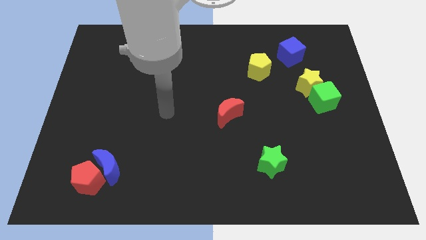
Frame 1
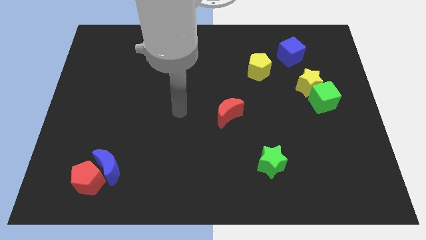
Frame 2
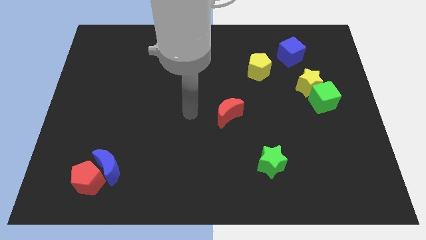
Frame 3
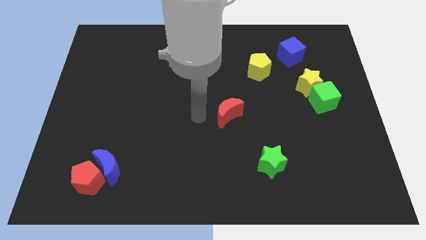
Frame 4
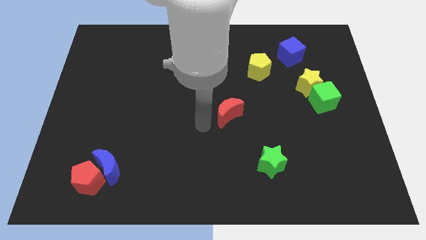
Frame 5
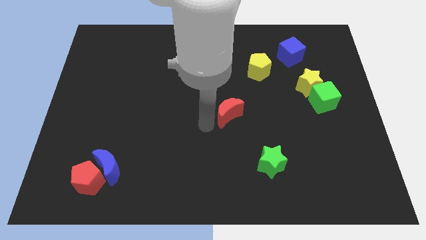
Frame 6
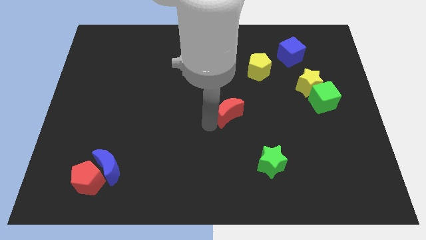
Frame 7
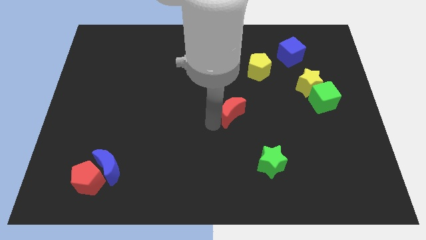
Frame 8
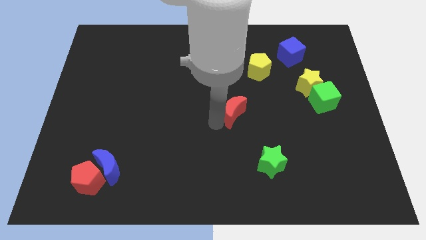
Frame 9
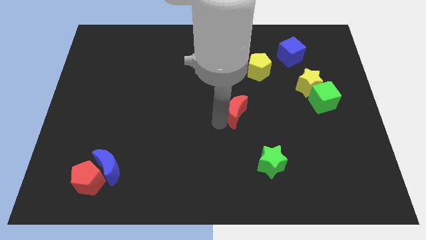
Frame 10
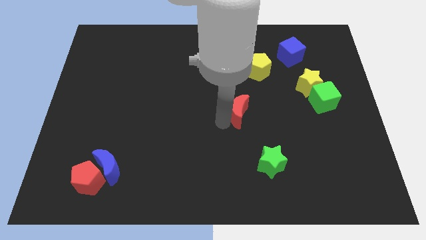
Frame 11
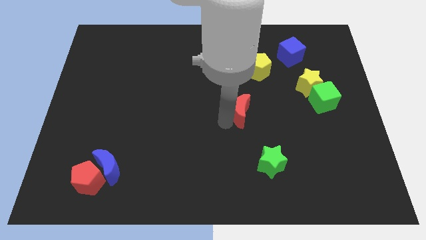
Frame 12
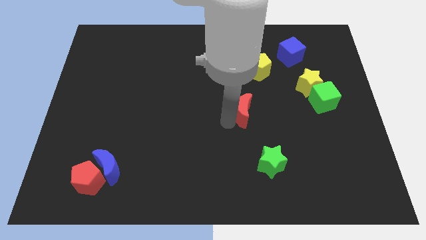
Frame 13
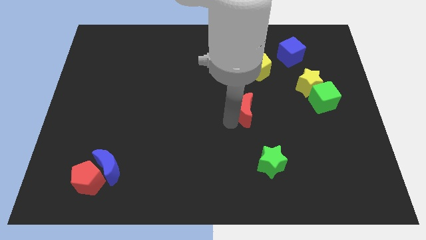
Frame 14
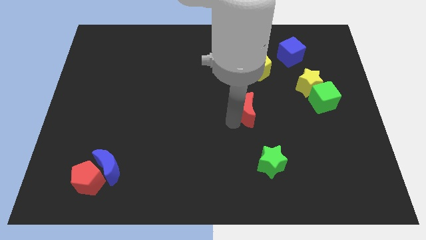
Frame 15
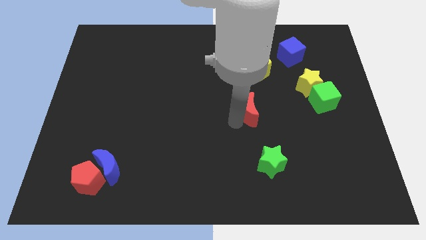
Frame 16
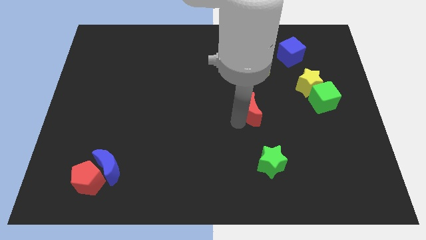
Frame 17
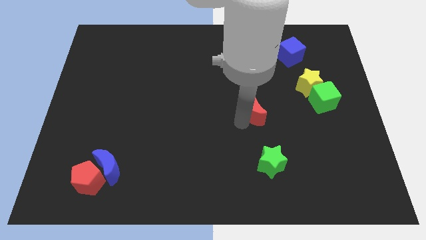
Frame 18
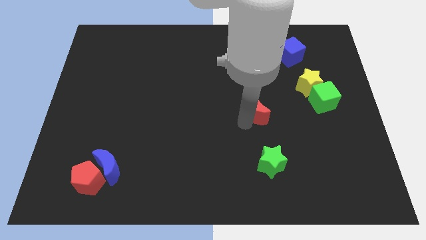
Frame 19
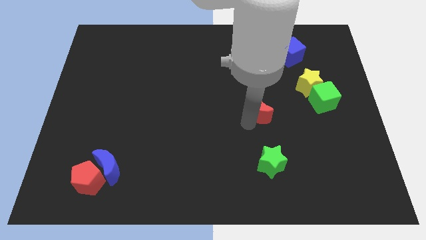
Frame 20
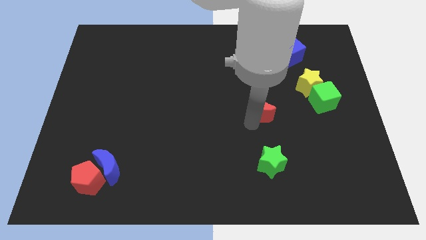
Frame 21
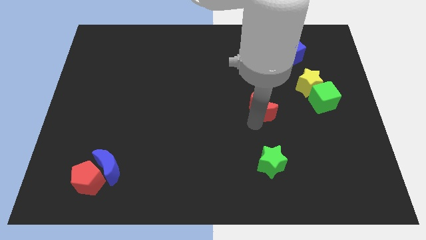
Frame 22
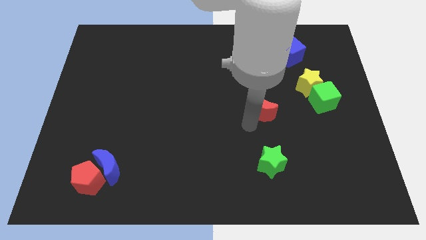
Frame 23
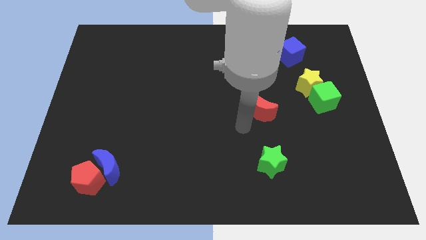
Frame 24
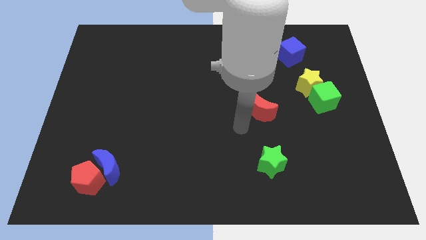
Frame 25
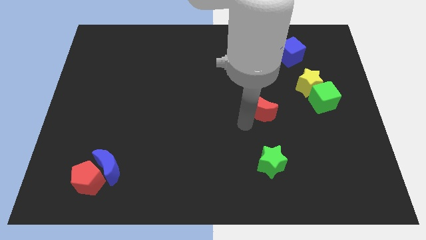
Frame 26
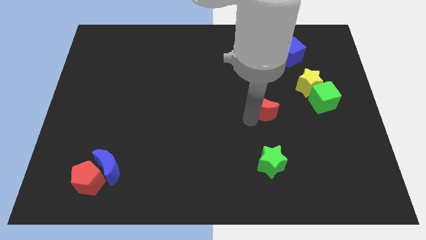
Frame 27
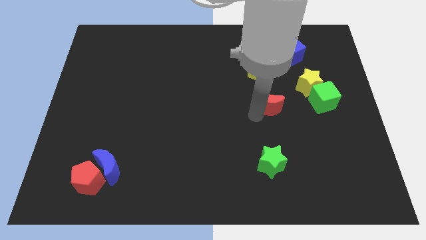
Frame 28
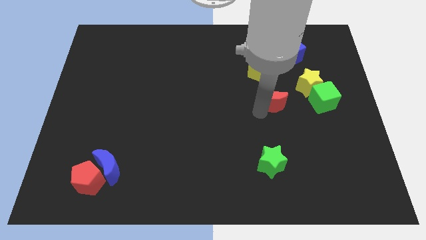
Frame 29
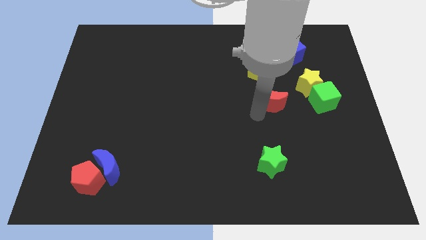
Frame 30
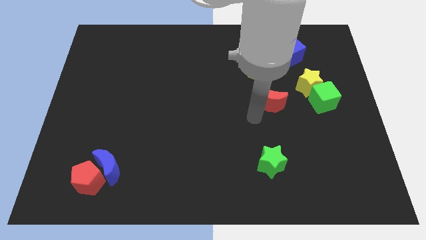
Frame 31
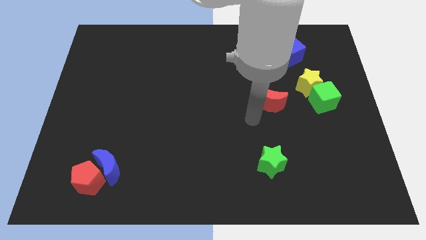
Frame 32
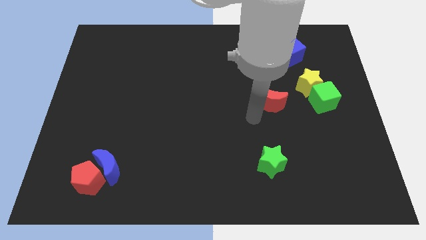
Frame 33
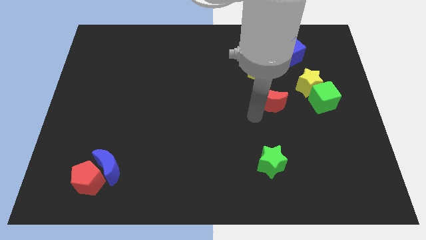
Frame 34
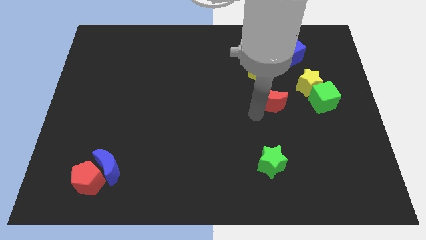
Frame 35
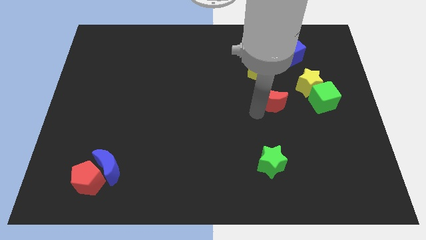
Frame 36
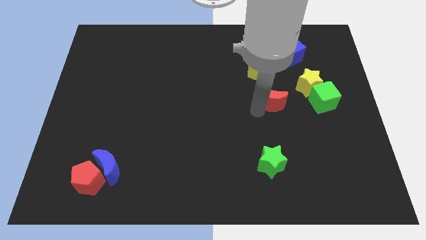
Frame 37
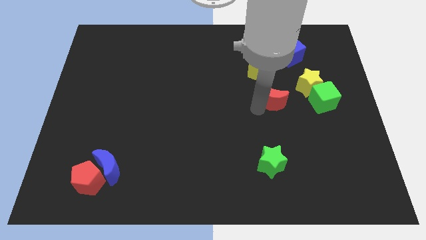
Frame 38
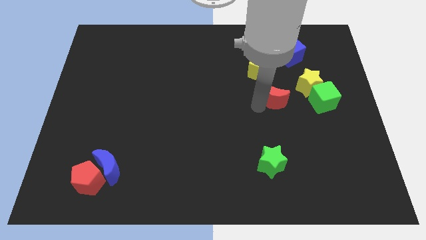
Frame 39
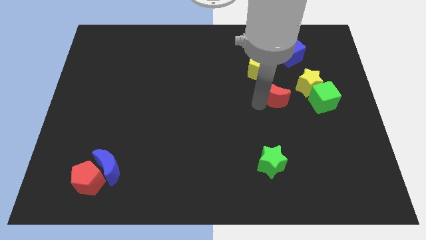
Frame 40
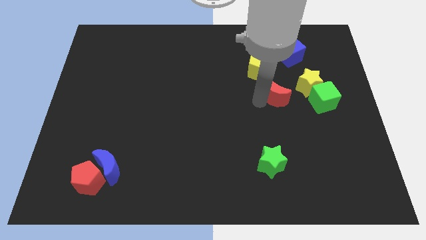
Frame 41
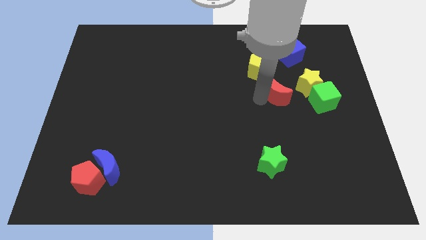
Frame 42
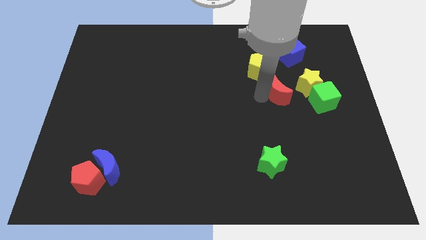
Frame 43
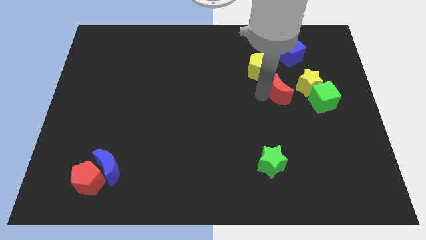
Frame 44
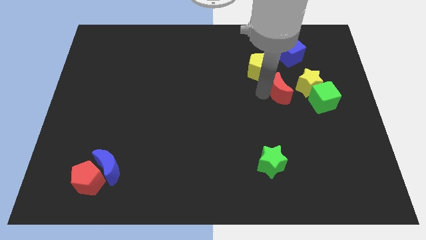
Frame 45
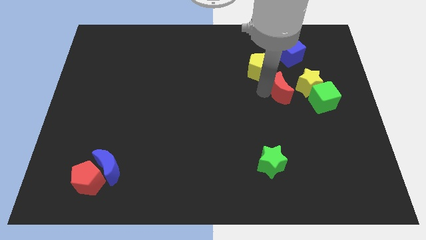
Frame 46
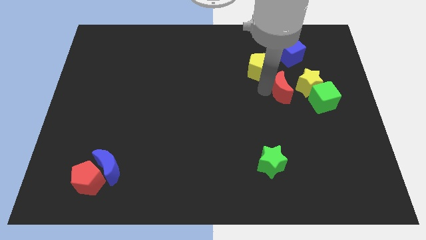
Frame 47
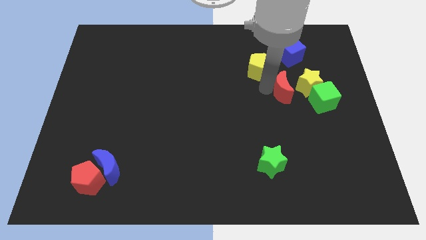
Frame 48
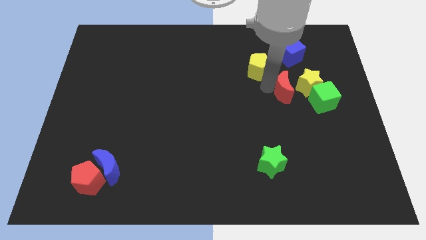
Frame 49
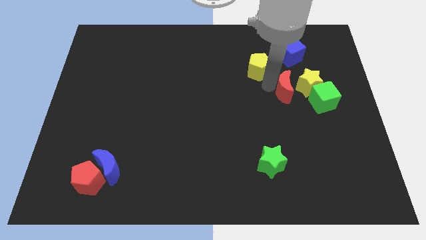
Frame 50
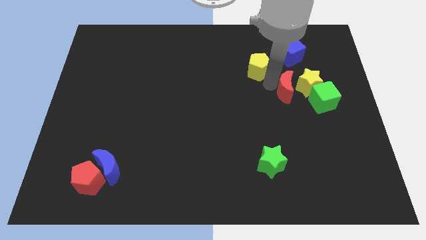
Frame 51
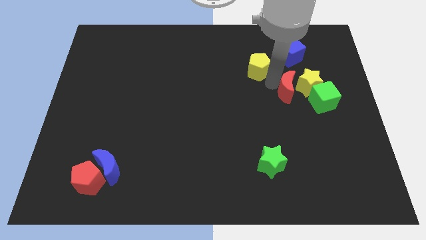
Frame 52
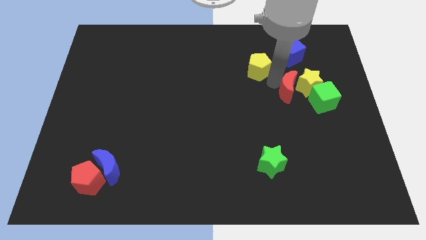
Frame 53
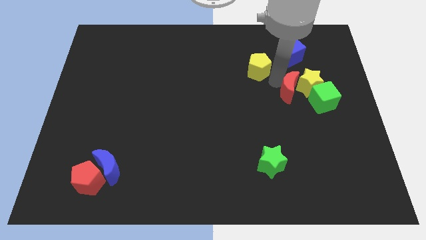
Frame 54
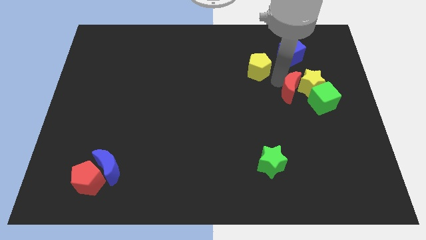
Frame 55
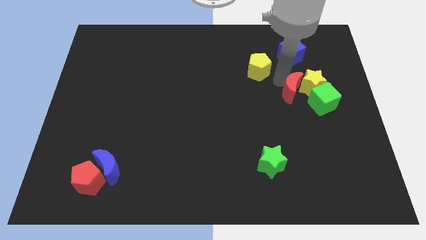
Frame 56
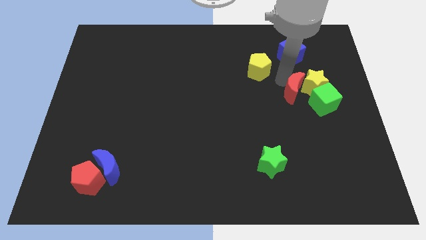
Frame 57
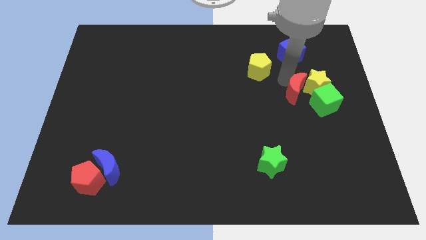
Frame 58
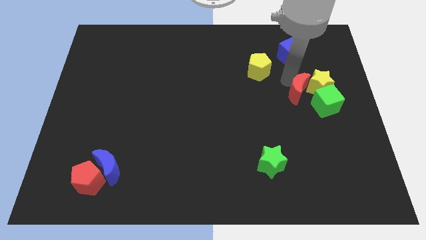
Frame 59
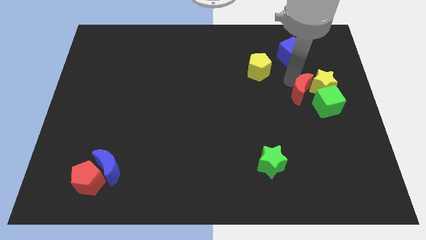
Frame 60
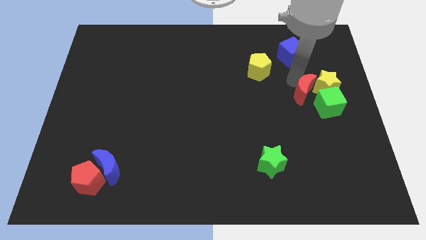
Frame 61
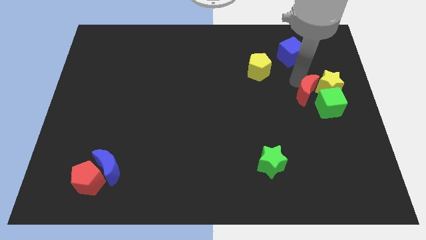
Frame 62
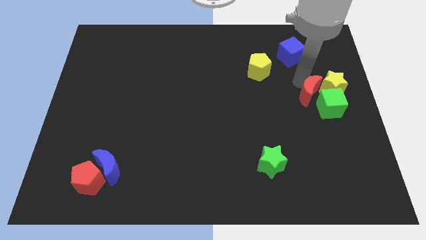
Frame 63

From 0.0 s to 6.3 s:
put the red moon towards the green cube

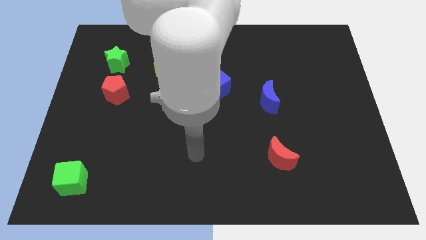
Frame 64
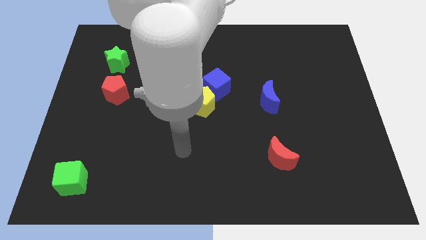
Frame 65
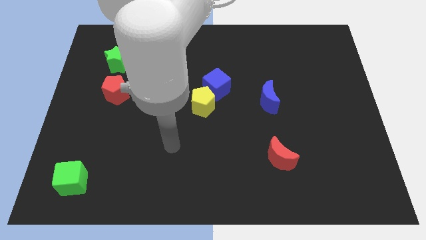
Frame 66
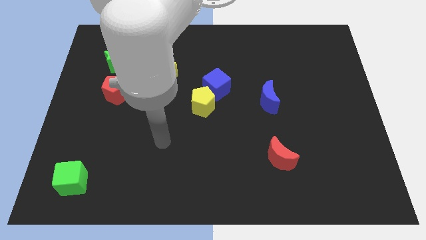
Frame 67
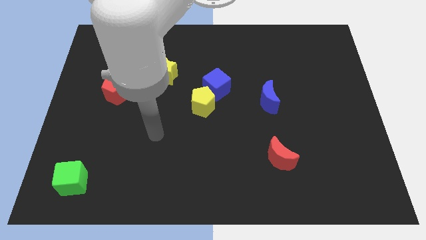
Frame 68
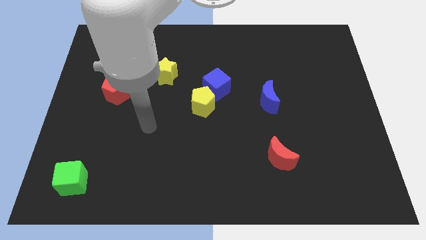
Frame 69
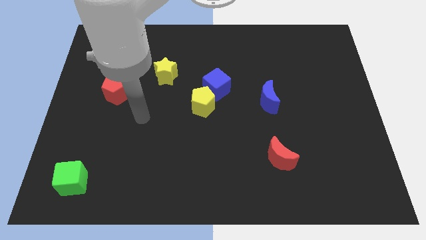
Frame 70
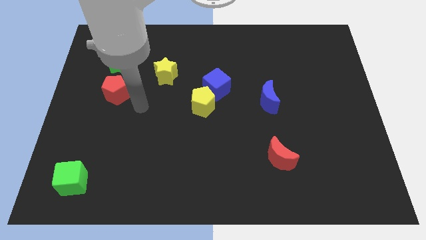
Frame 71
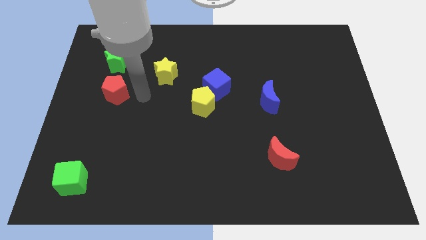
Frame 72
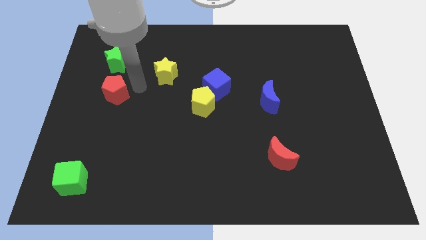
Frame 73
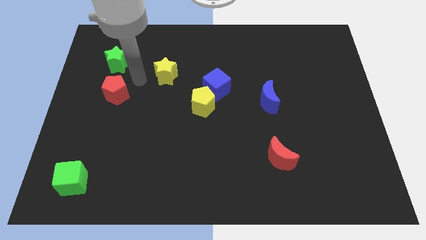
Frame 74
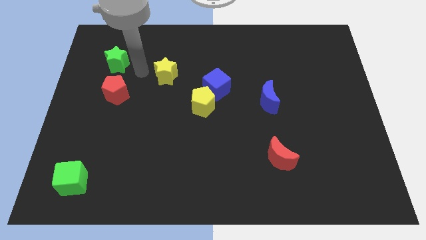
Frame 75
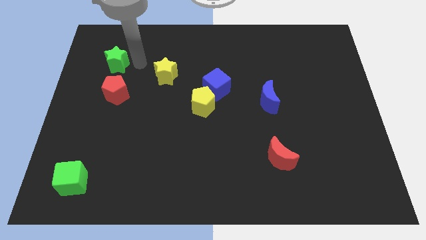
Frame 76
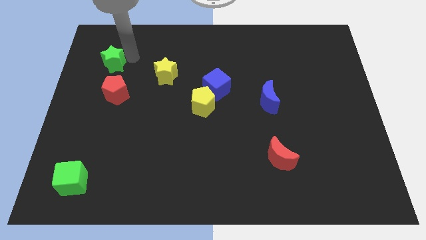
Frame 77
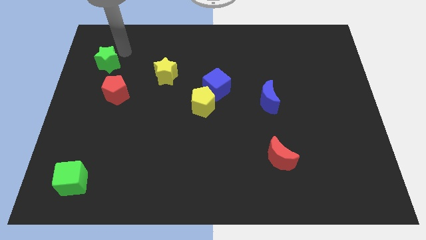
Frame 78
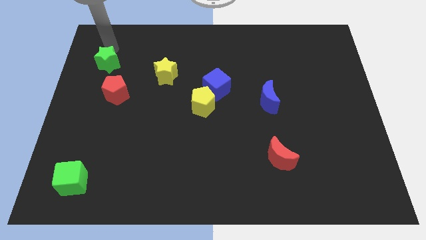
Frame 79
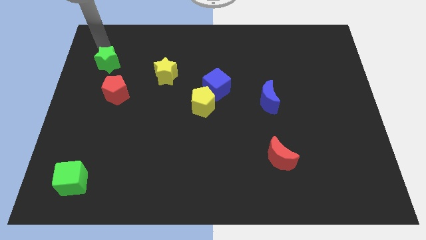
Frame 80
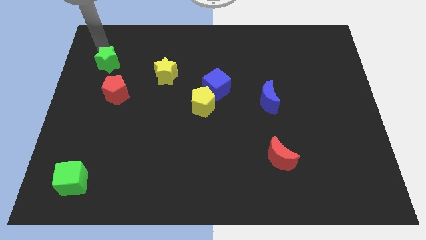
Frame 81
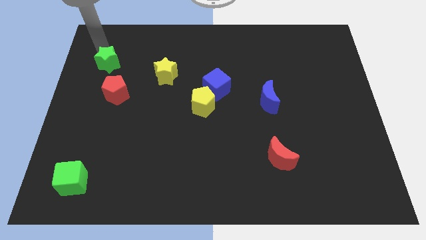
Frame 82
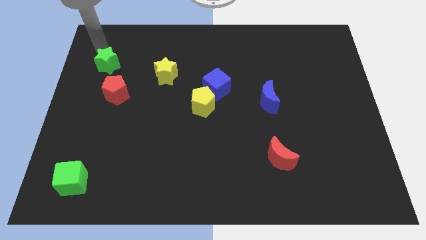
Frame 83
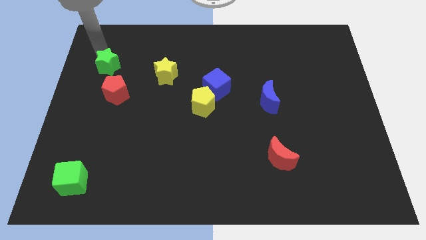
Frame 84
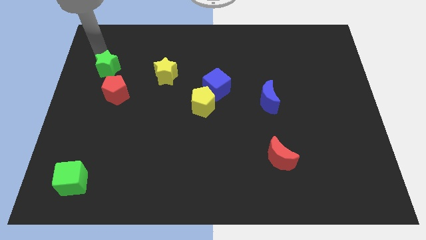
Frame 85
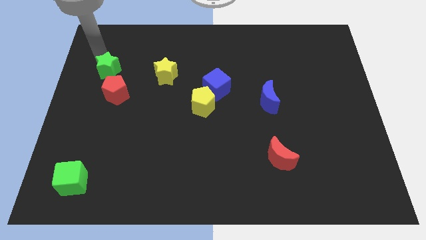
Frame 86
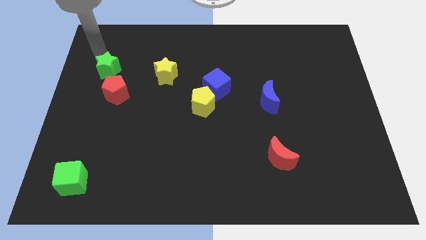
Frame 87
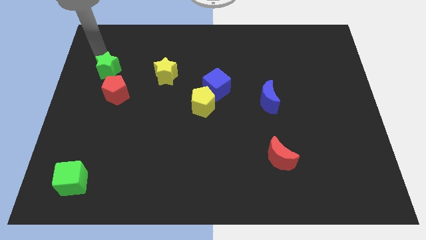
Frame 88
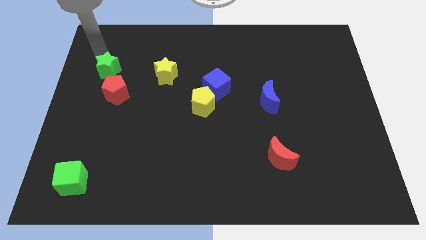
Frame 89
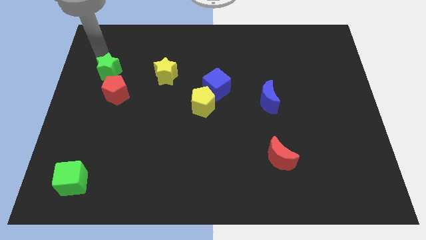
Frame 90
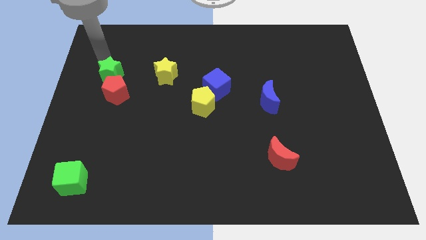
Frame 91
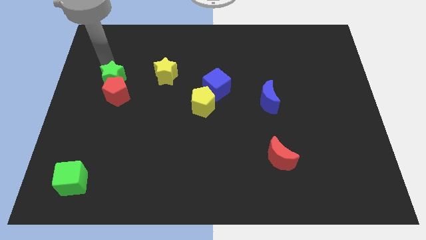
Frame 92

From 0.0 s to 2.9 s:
move the green star to the red pentagon
